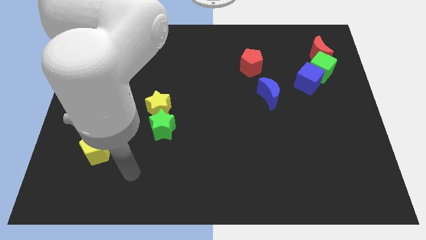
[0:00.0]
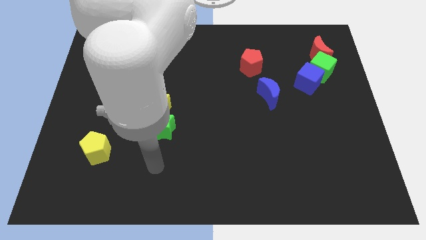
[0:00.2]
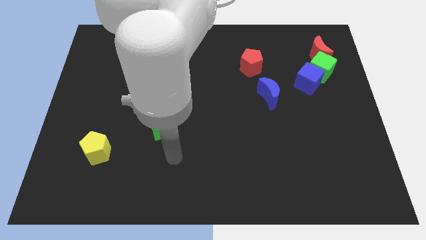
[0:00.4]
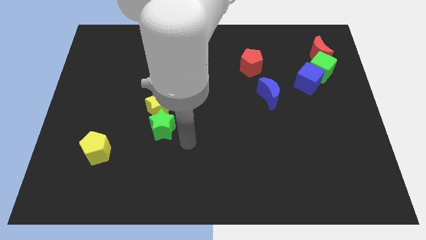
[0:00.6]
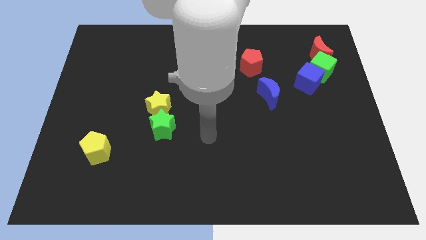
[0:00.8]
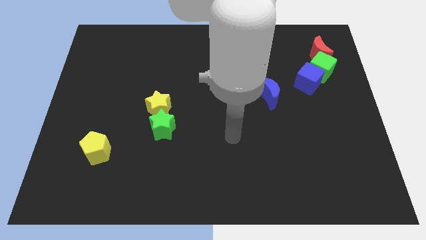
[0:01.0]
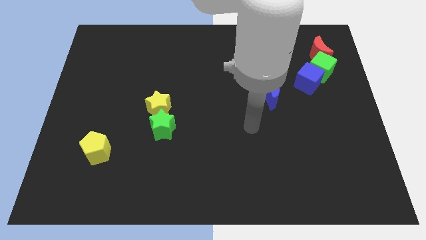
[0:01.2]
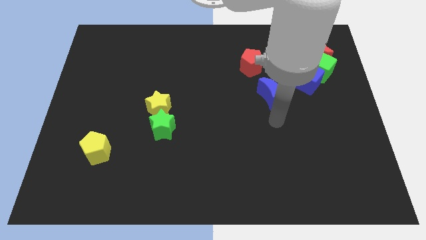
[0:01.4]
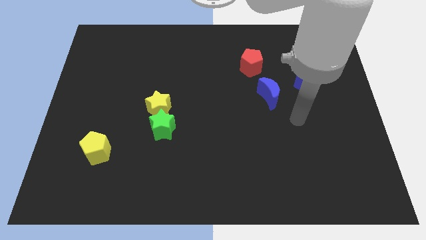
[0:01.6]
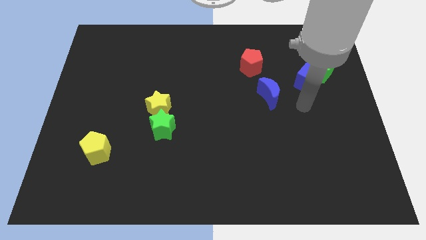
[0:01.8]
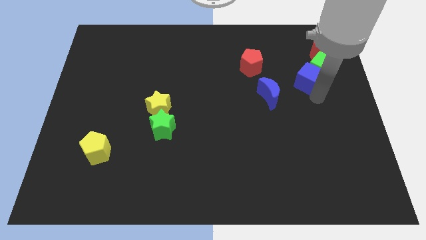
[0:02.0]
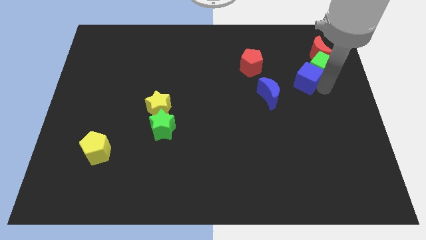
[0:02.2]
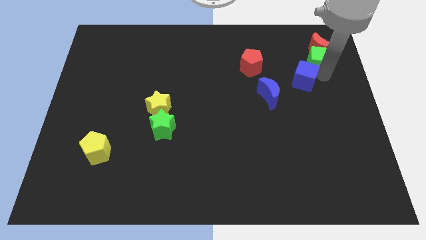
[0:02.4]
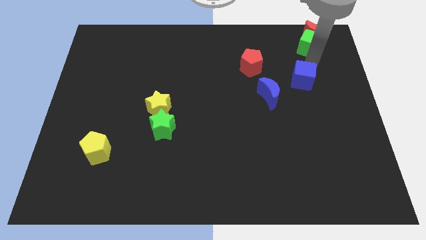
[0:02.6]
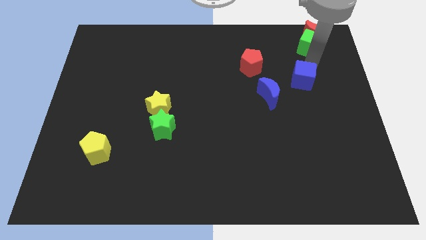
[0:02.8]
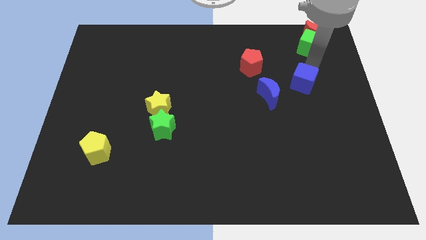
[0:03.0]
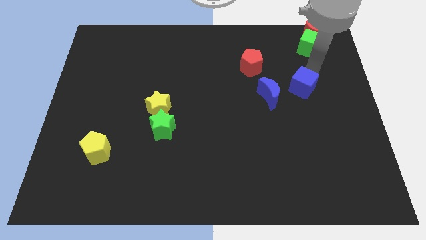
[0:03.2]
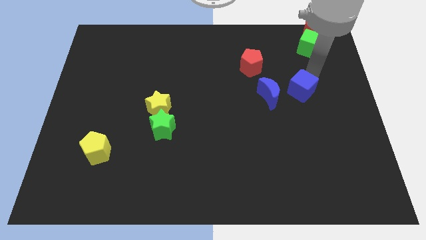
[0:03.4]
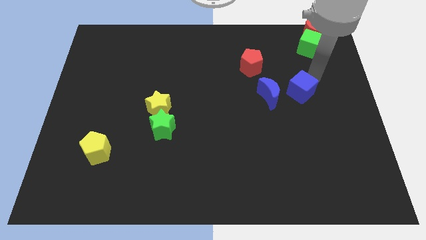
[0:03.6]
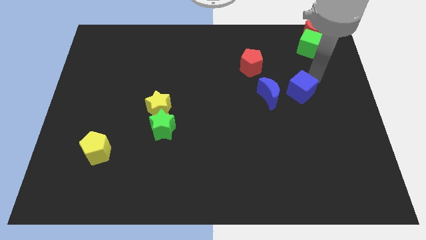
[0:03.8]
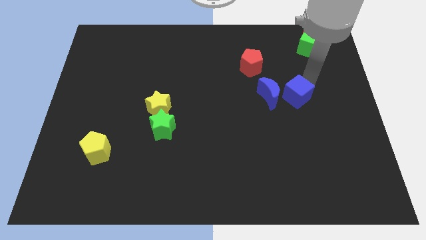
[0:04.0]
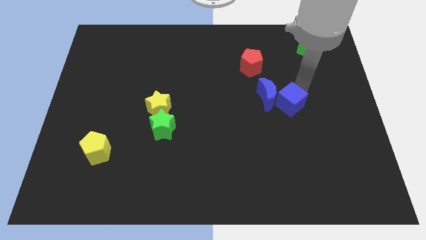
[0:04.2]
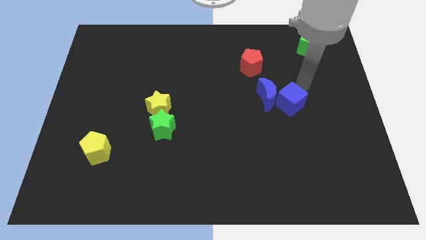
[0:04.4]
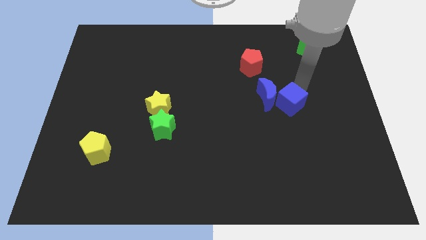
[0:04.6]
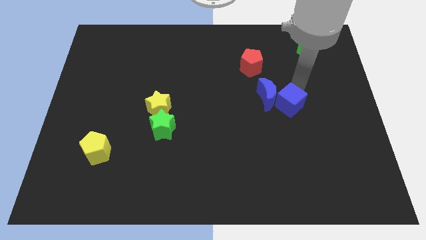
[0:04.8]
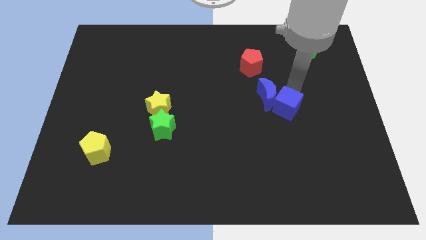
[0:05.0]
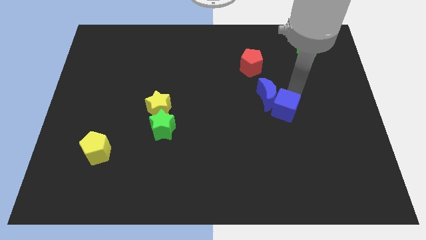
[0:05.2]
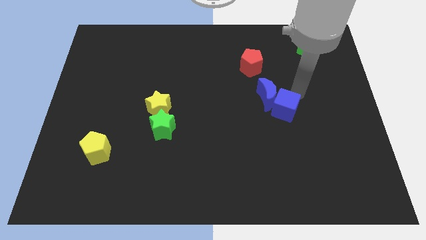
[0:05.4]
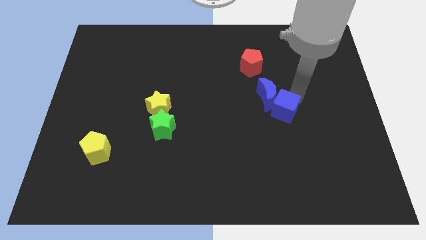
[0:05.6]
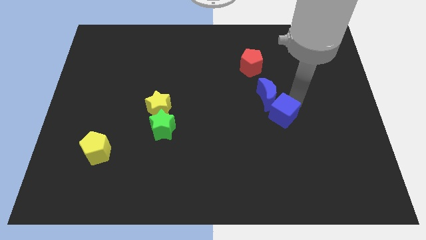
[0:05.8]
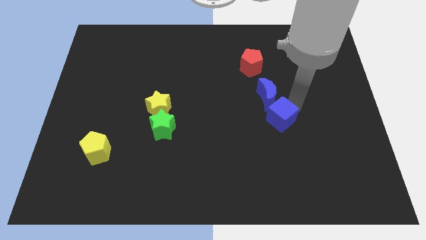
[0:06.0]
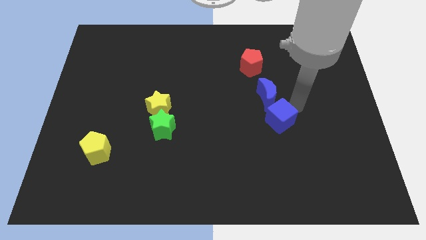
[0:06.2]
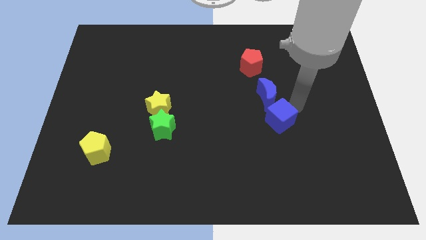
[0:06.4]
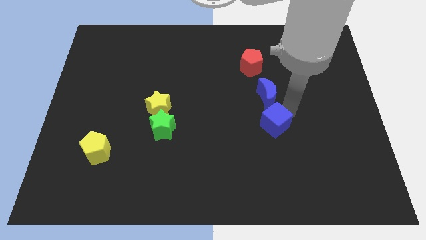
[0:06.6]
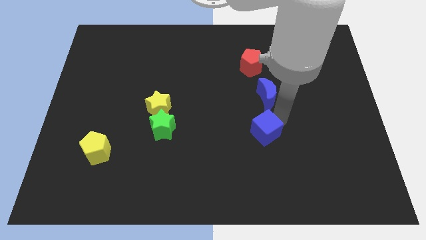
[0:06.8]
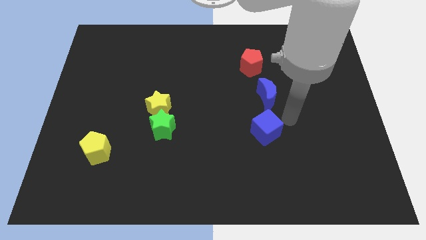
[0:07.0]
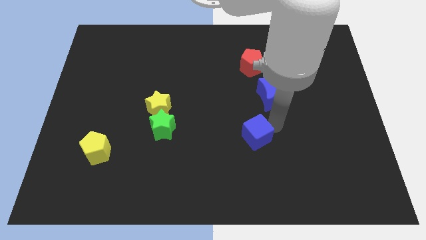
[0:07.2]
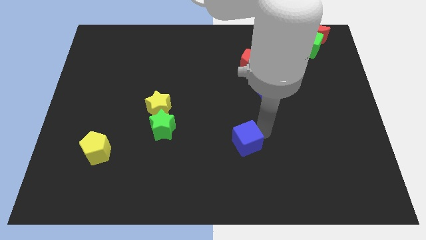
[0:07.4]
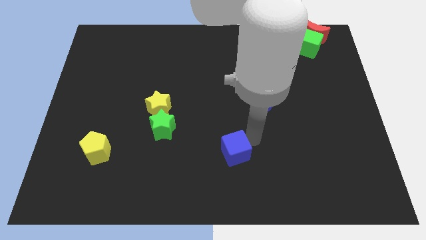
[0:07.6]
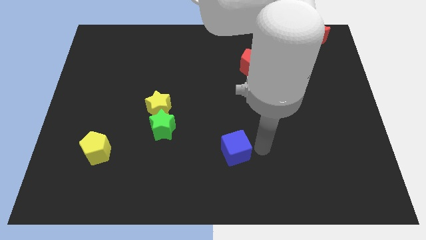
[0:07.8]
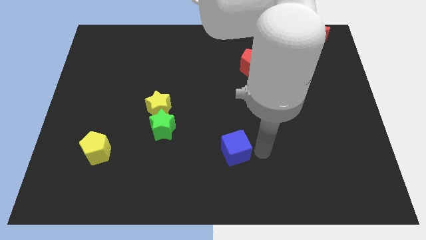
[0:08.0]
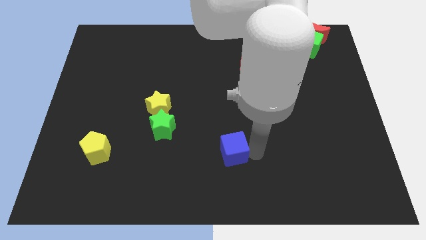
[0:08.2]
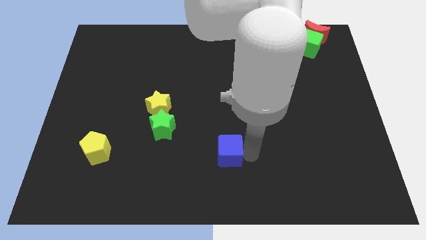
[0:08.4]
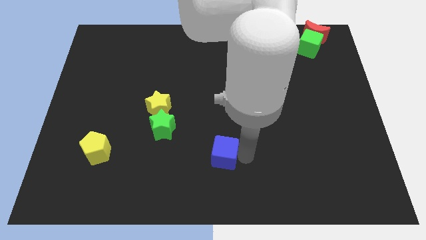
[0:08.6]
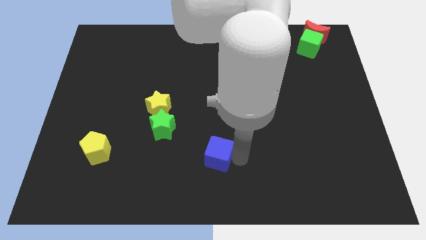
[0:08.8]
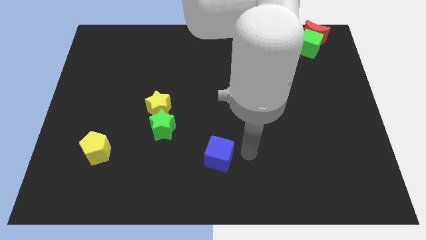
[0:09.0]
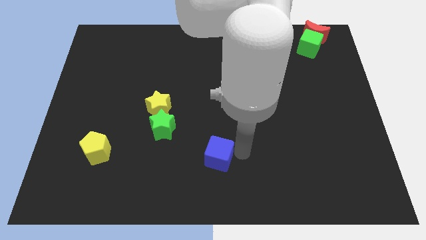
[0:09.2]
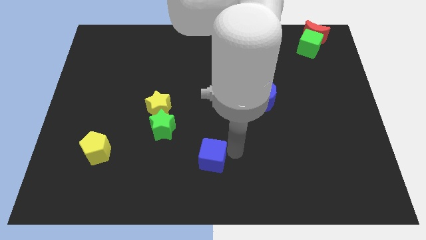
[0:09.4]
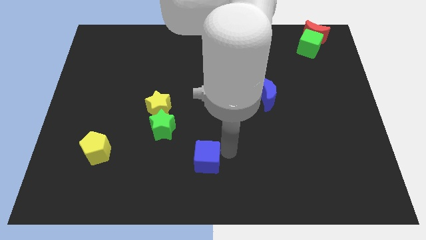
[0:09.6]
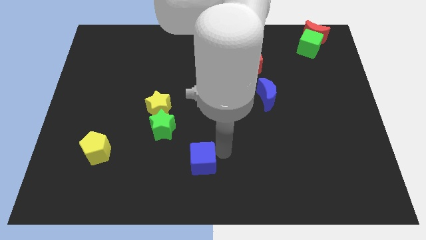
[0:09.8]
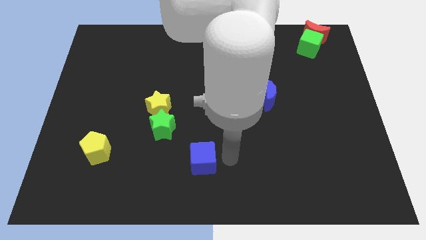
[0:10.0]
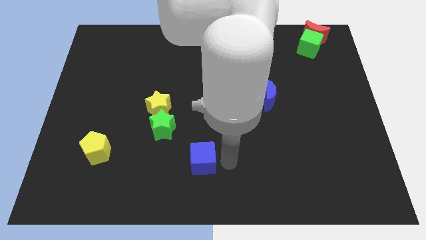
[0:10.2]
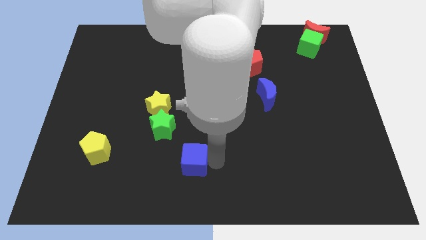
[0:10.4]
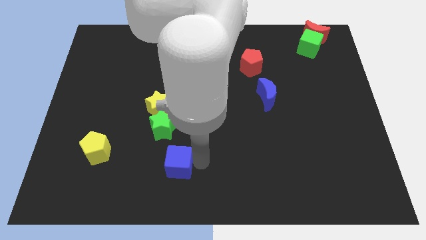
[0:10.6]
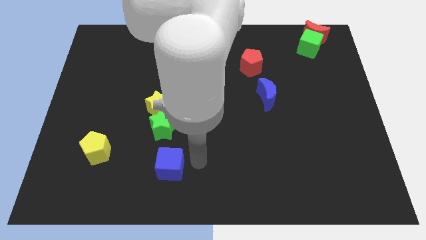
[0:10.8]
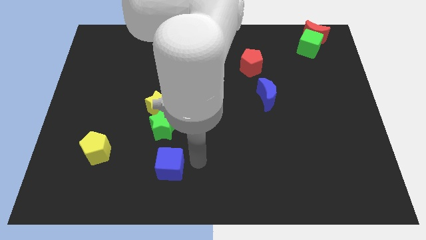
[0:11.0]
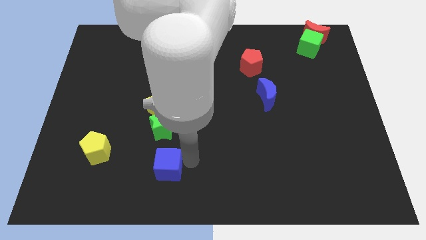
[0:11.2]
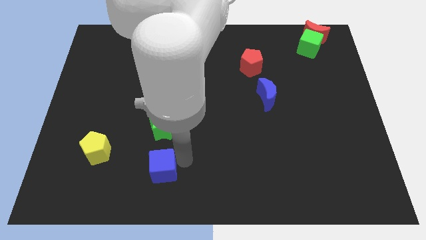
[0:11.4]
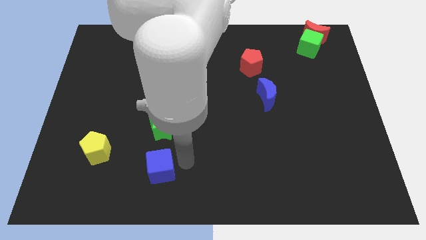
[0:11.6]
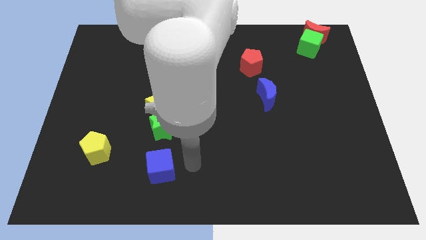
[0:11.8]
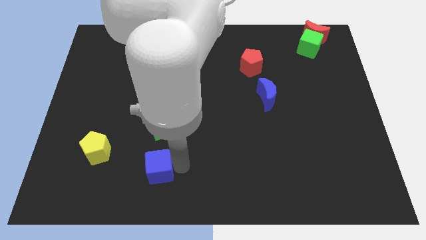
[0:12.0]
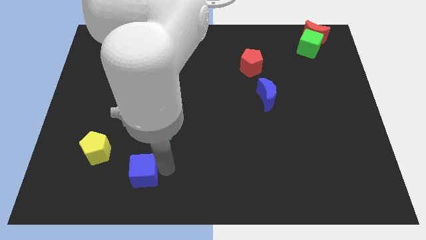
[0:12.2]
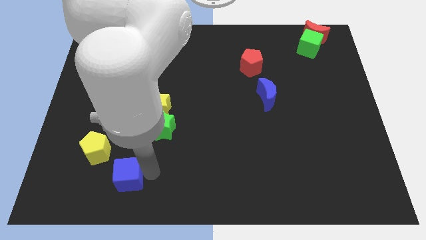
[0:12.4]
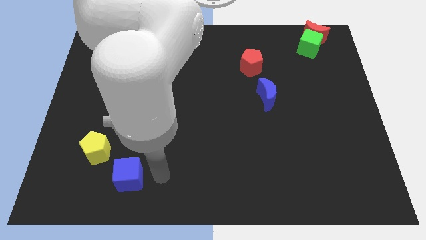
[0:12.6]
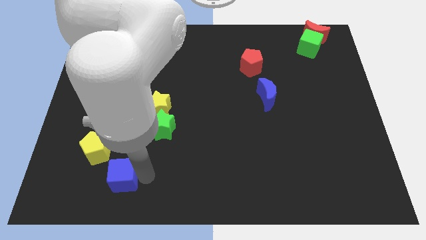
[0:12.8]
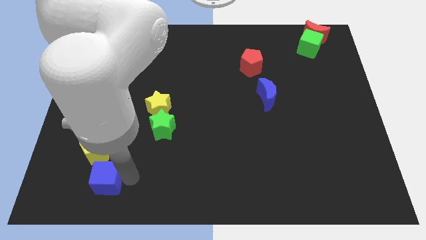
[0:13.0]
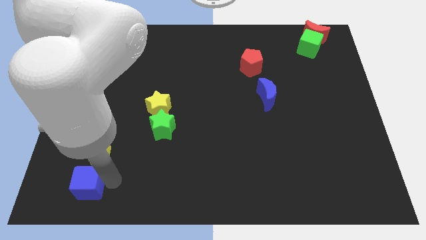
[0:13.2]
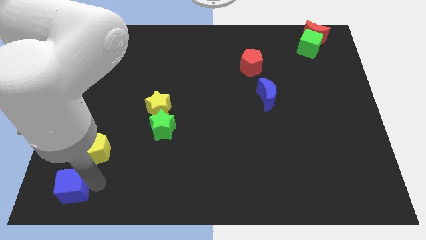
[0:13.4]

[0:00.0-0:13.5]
move the blue cube to the bottom left
